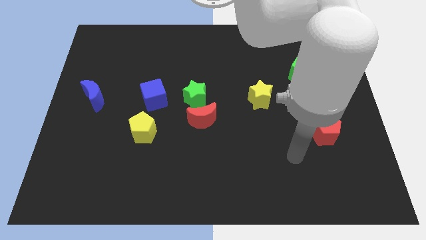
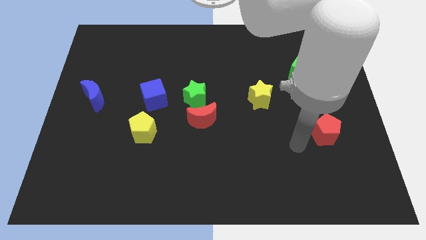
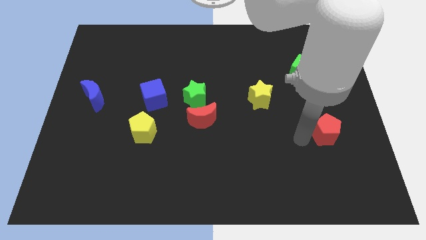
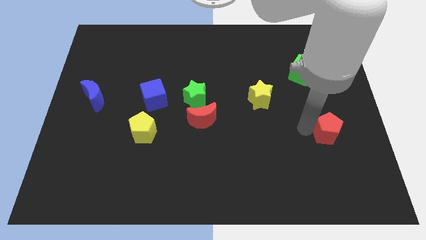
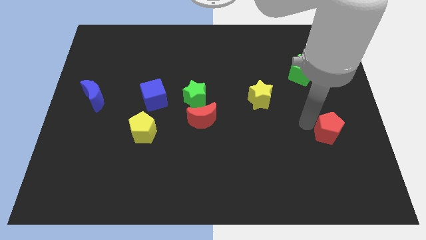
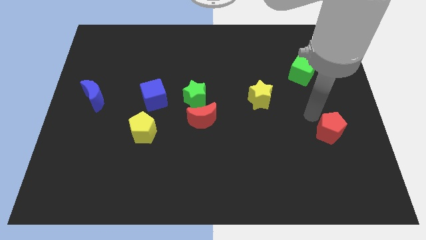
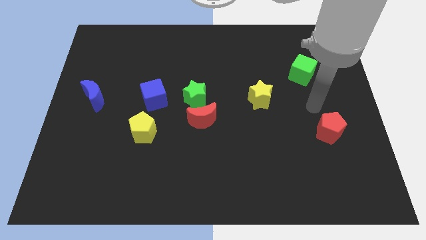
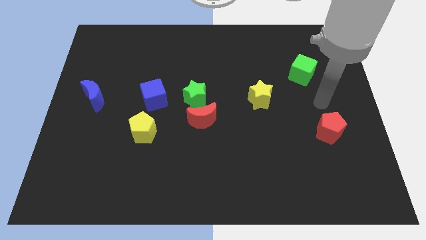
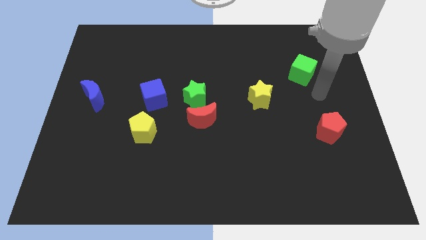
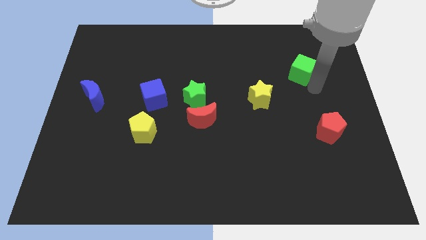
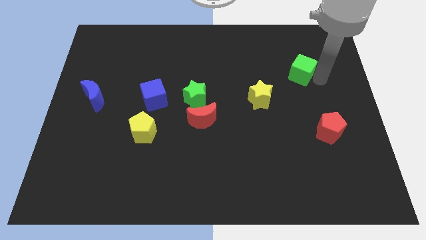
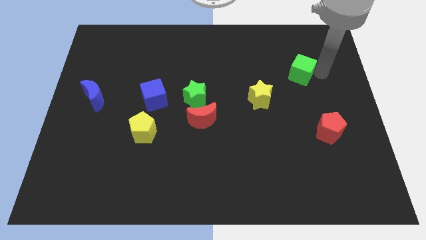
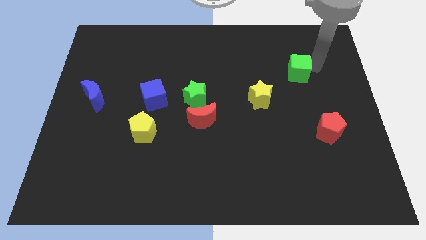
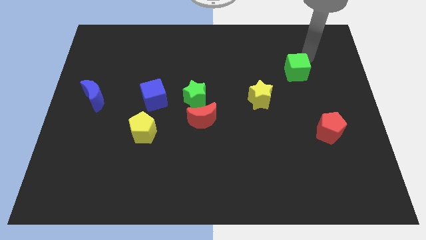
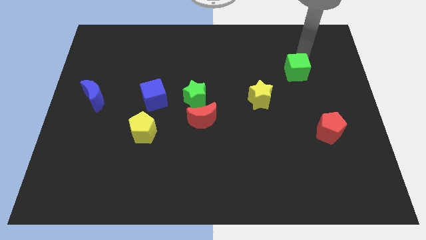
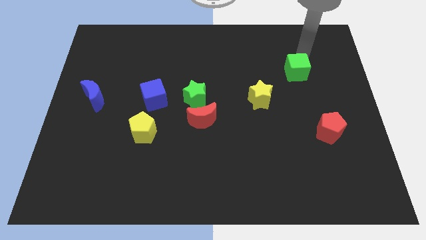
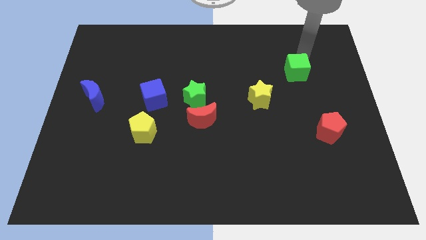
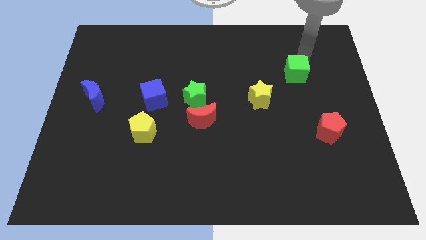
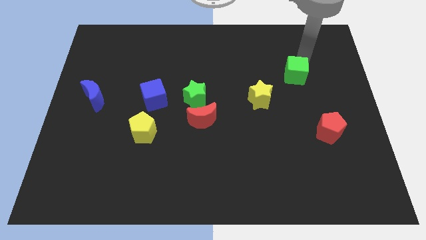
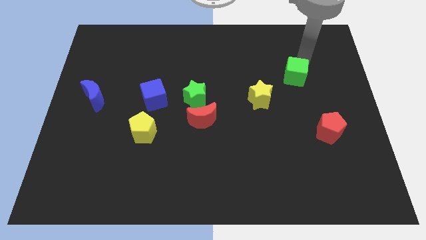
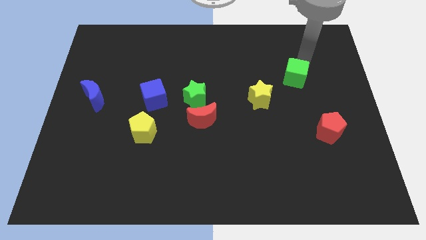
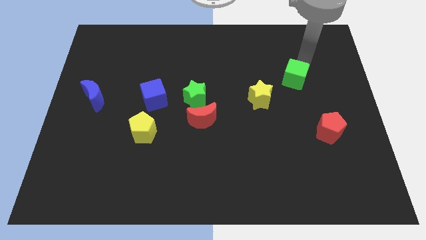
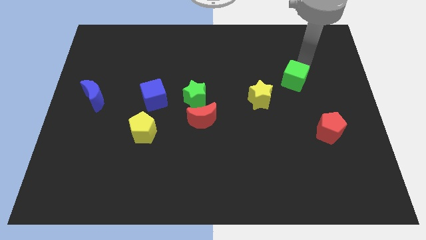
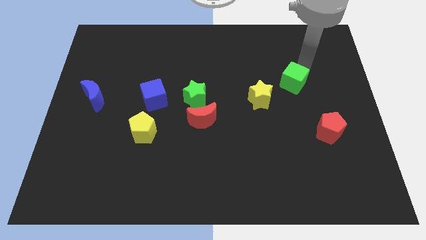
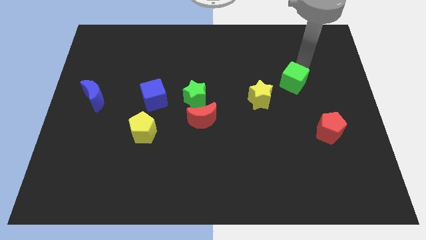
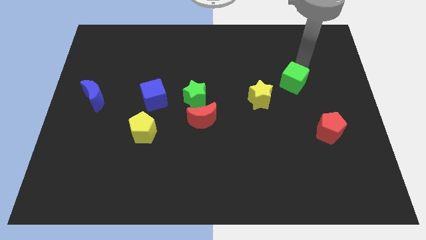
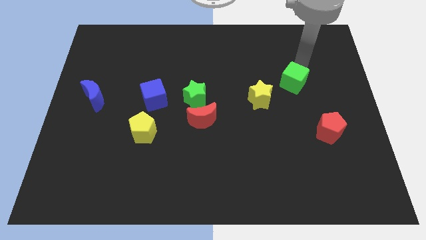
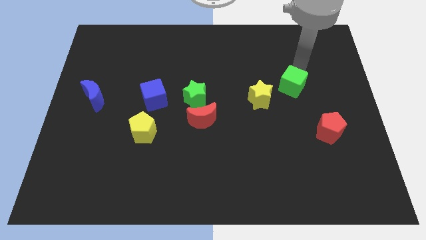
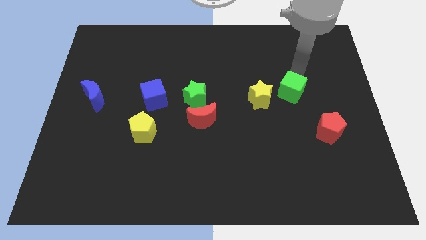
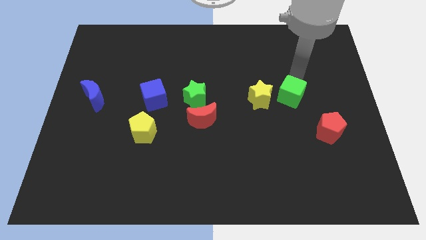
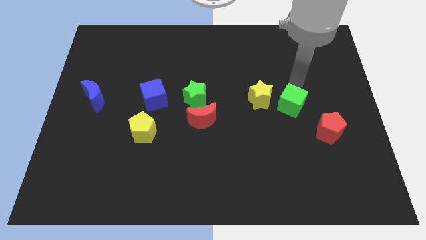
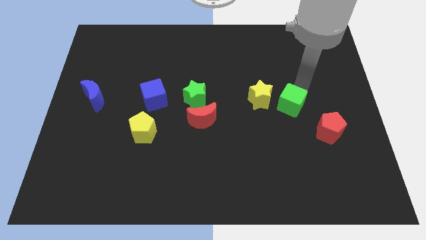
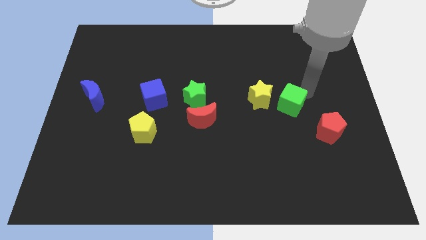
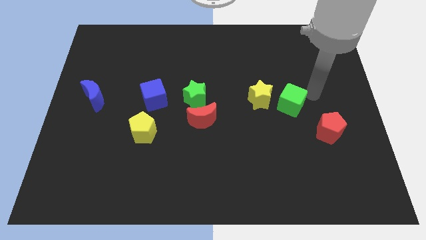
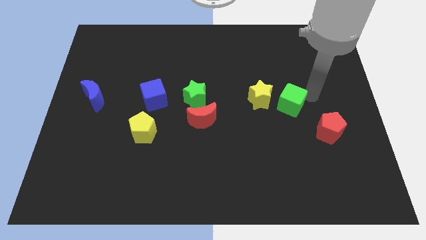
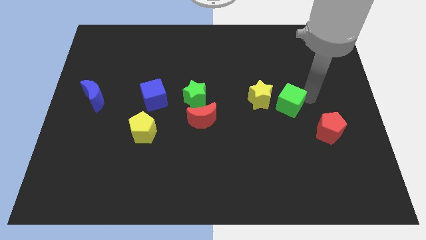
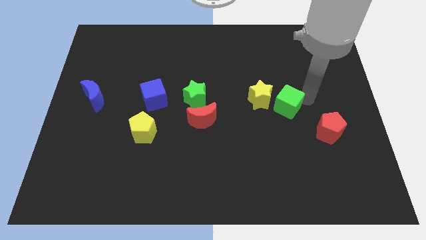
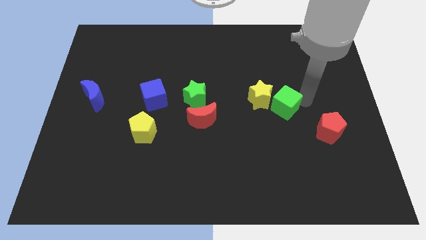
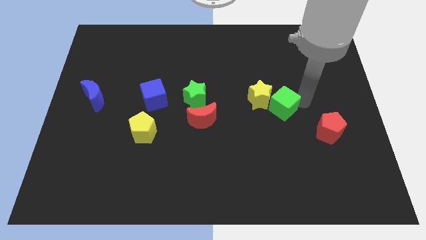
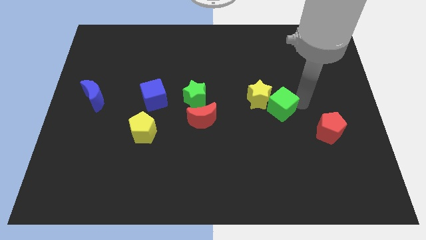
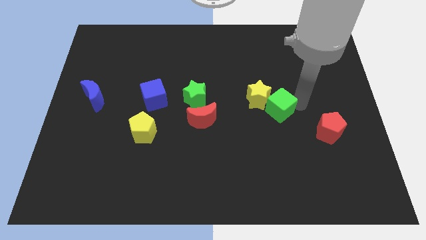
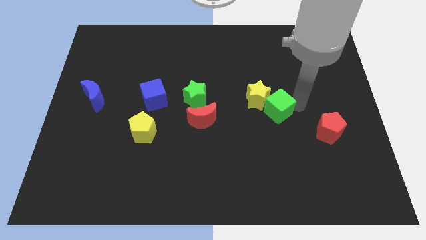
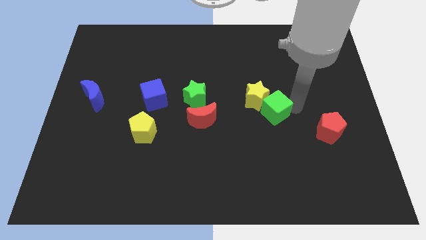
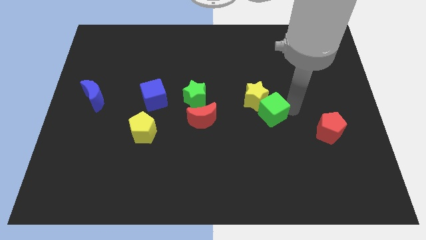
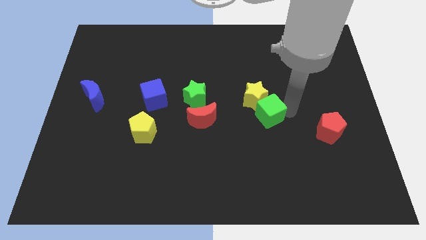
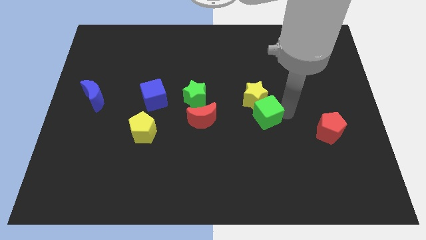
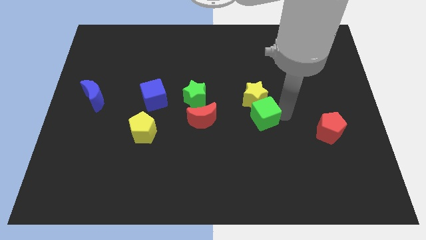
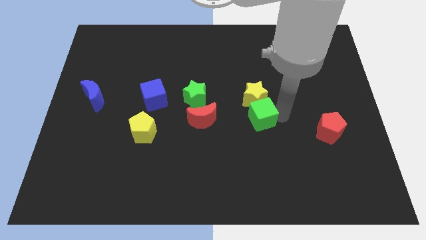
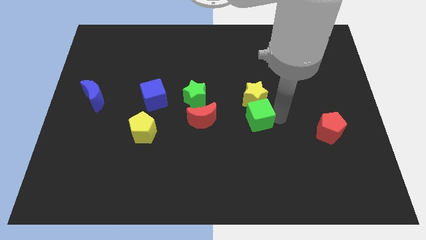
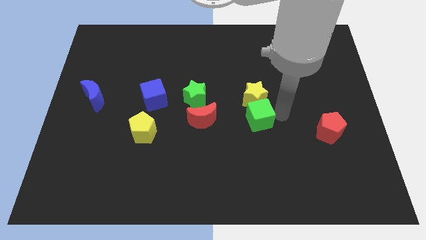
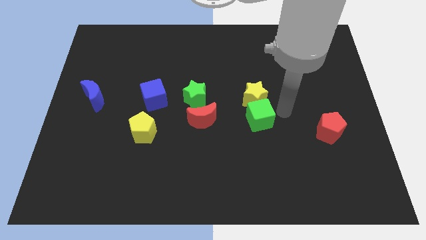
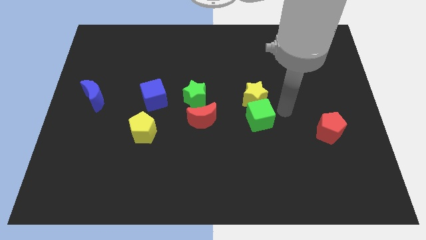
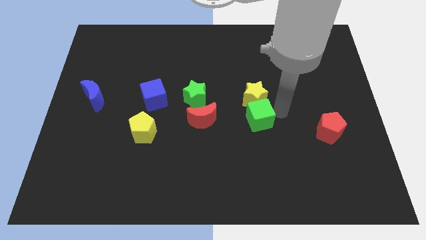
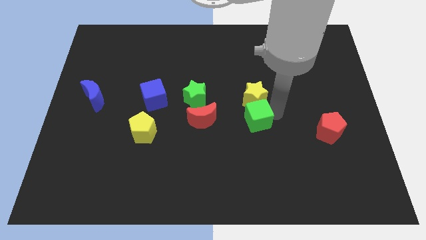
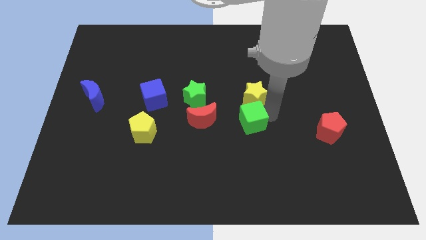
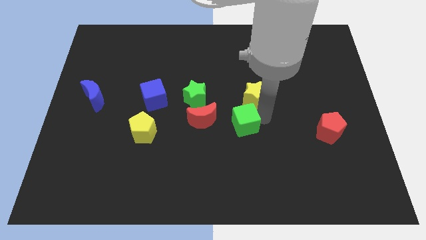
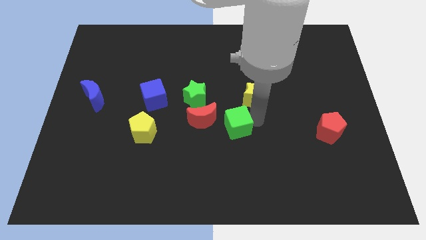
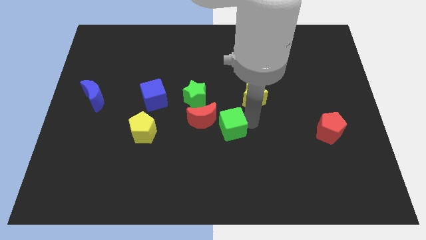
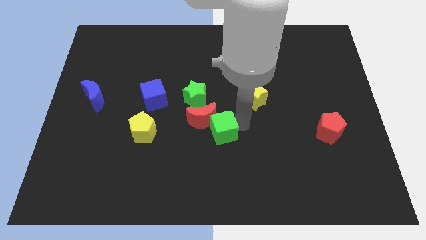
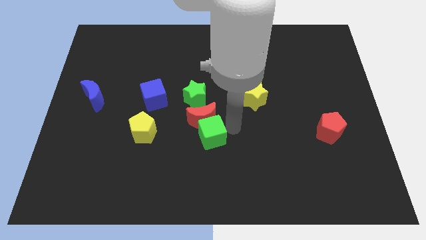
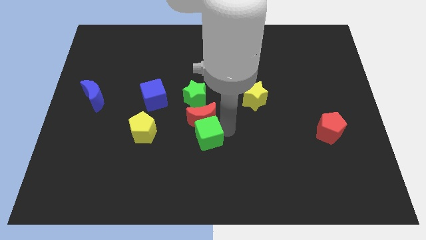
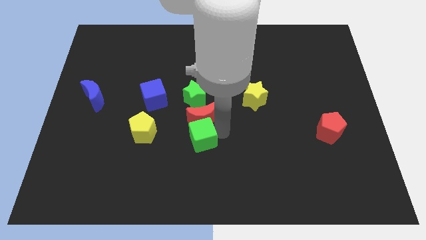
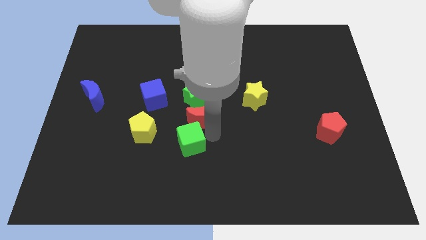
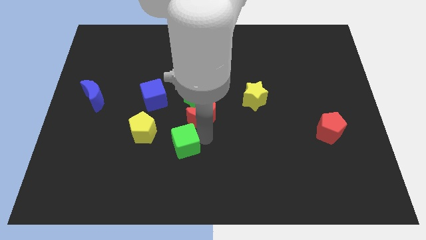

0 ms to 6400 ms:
move the green cube diagonally down and to the right of the yellow pentagon
